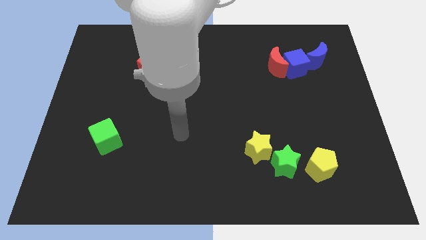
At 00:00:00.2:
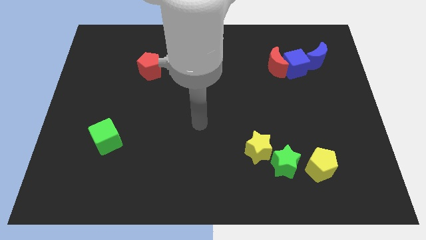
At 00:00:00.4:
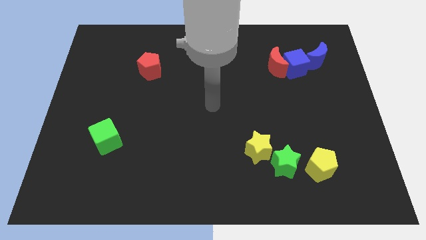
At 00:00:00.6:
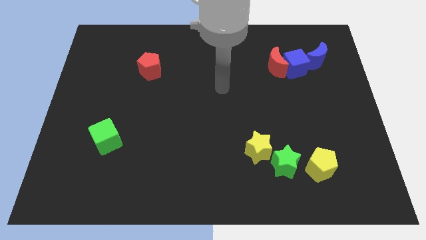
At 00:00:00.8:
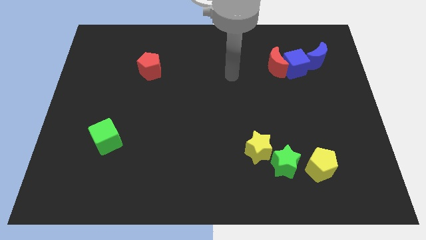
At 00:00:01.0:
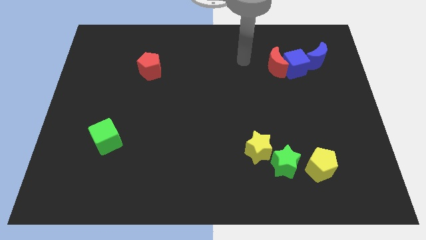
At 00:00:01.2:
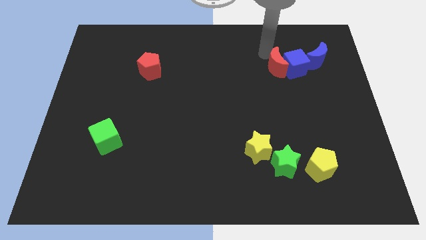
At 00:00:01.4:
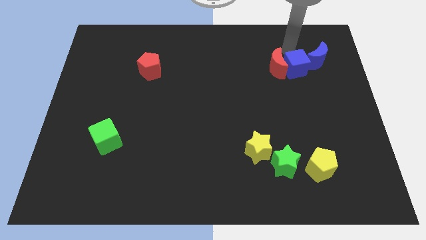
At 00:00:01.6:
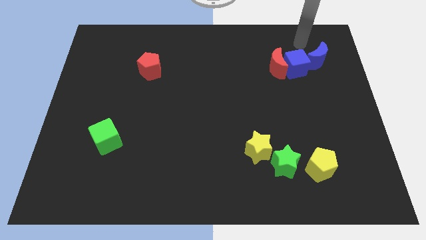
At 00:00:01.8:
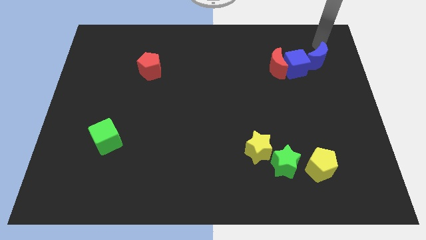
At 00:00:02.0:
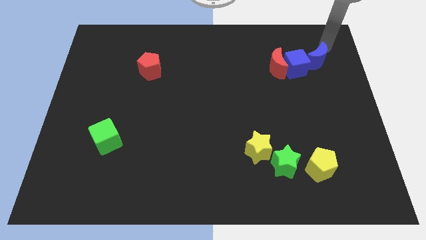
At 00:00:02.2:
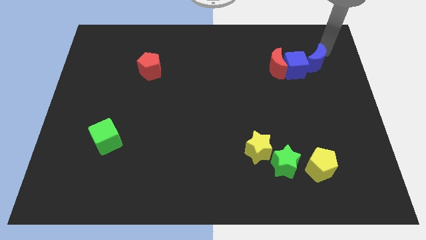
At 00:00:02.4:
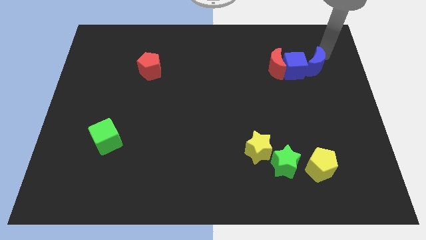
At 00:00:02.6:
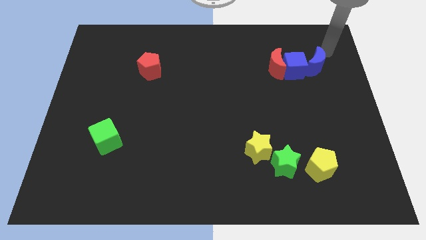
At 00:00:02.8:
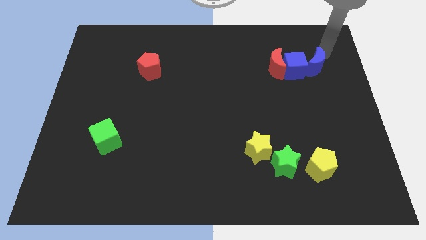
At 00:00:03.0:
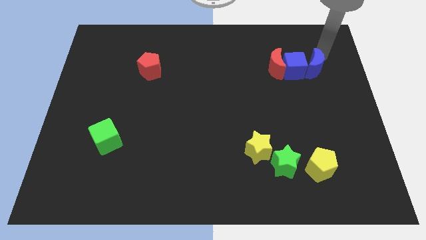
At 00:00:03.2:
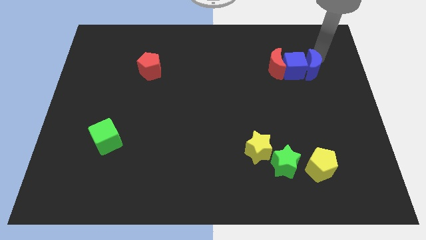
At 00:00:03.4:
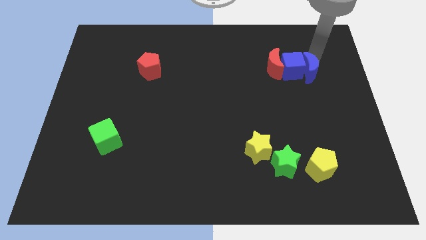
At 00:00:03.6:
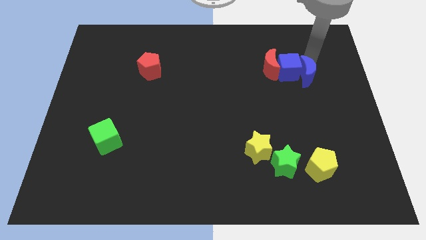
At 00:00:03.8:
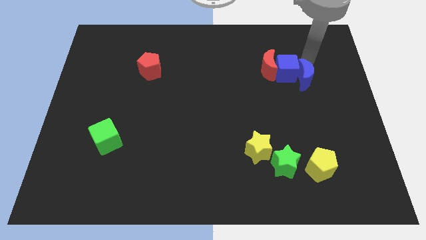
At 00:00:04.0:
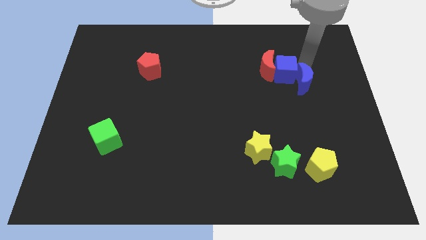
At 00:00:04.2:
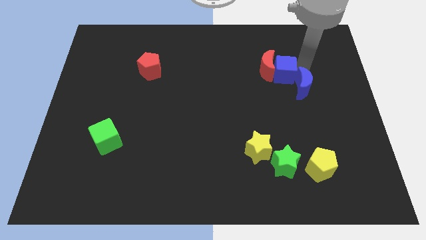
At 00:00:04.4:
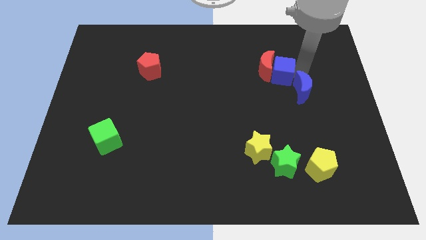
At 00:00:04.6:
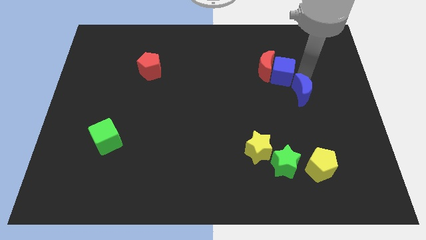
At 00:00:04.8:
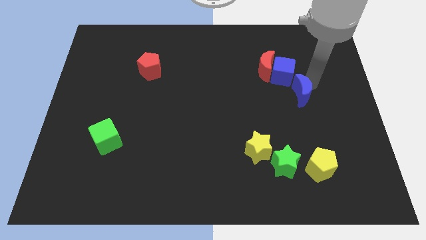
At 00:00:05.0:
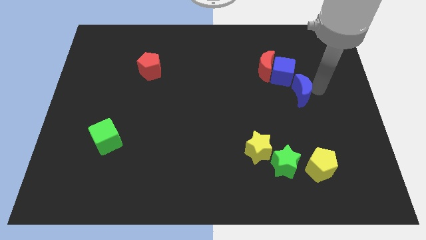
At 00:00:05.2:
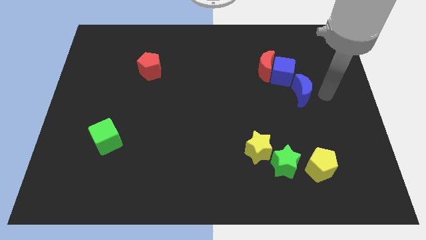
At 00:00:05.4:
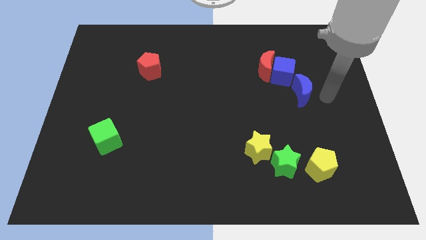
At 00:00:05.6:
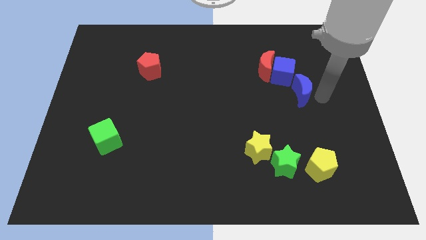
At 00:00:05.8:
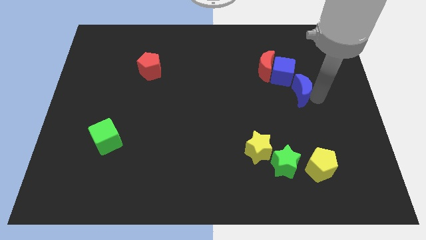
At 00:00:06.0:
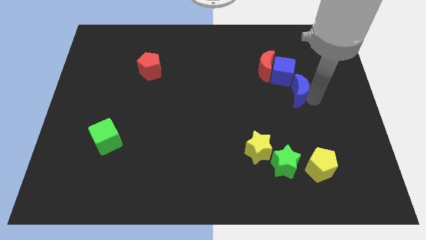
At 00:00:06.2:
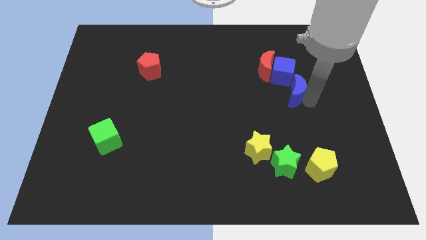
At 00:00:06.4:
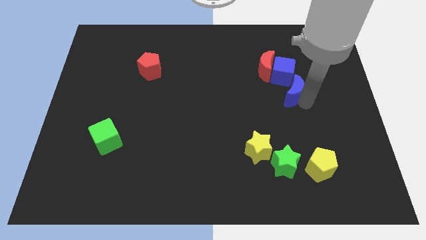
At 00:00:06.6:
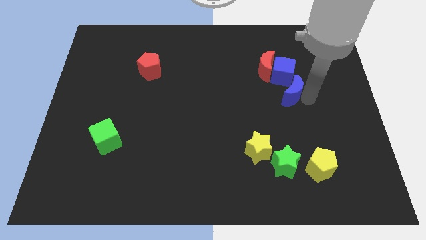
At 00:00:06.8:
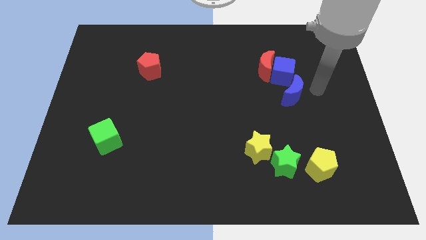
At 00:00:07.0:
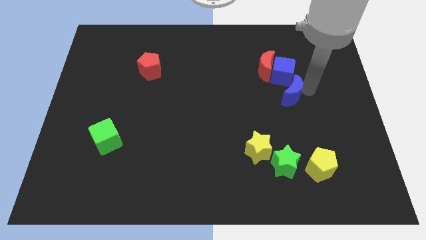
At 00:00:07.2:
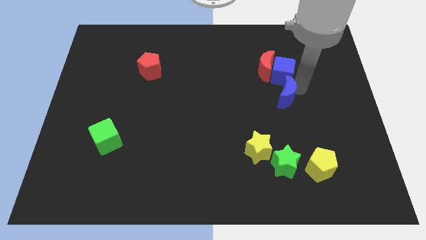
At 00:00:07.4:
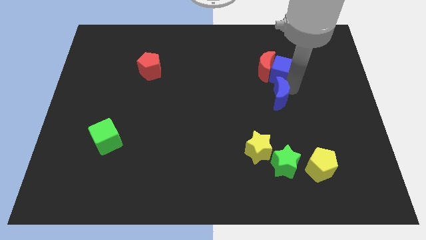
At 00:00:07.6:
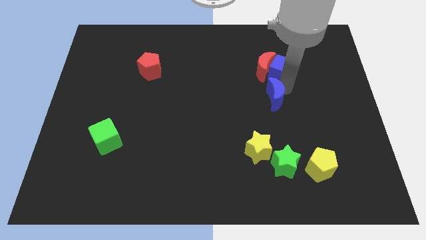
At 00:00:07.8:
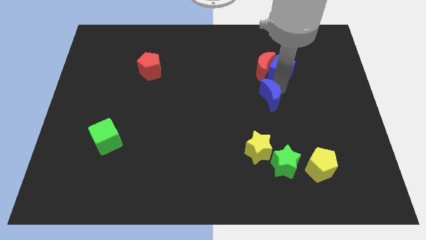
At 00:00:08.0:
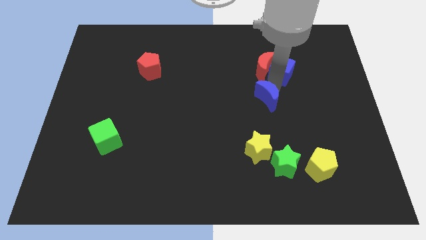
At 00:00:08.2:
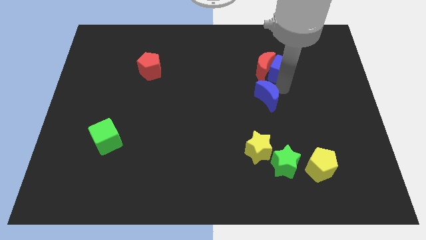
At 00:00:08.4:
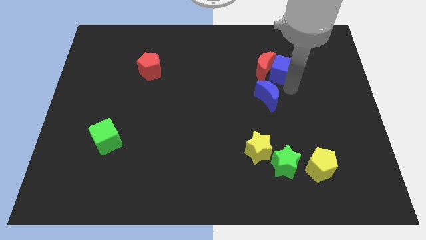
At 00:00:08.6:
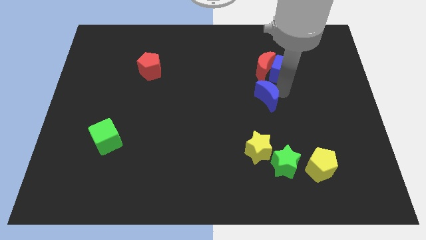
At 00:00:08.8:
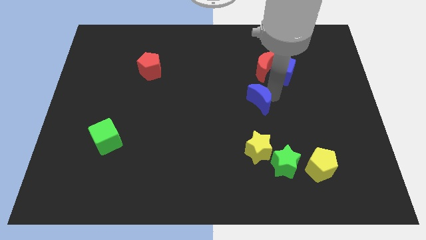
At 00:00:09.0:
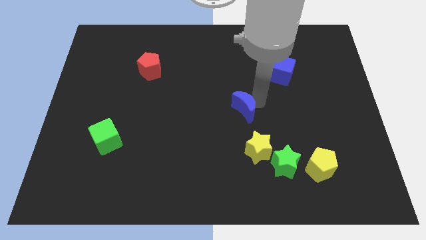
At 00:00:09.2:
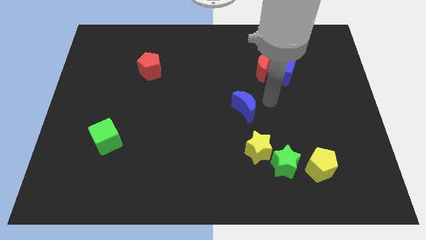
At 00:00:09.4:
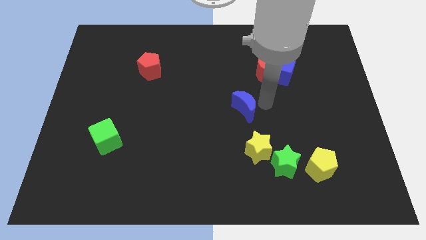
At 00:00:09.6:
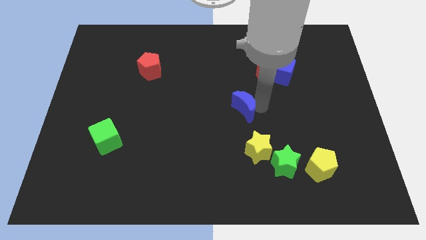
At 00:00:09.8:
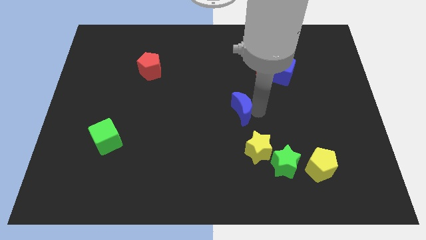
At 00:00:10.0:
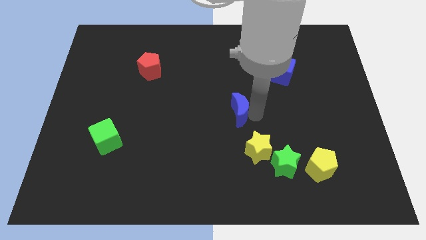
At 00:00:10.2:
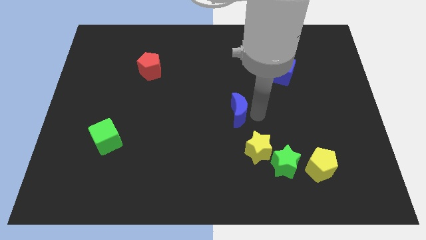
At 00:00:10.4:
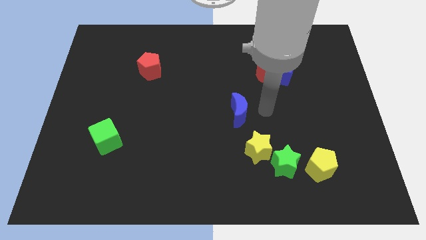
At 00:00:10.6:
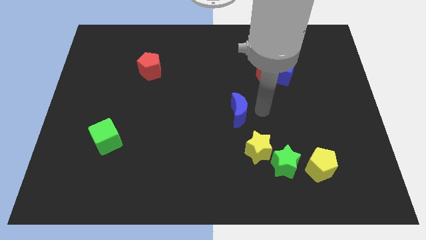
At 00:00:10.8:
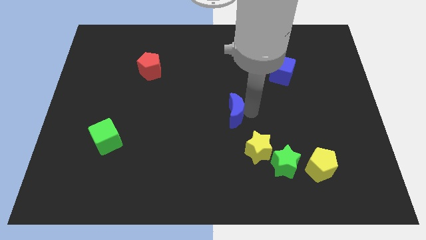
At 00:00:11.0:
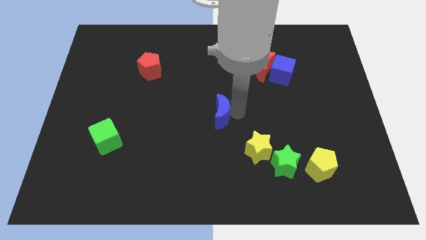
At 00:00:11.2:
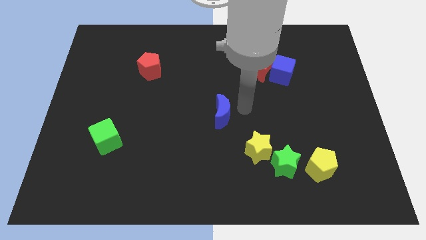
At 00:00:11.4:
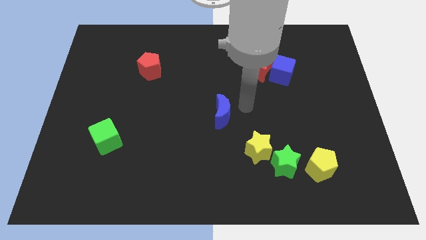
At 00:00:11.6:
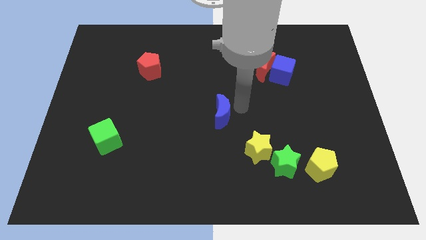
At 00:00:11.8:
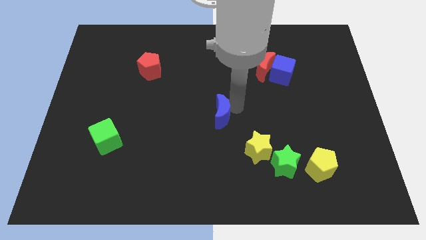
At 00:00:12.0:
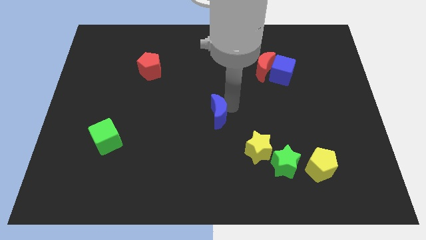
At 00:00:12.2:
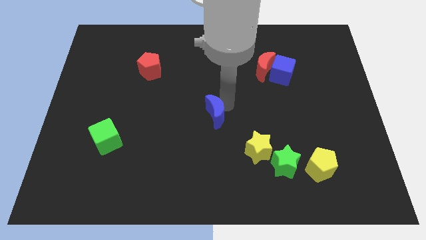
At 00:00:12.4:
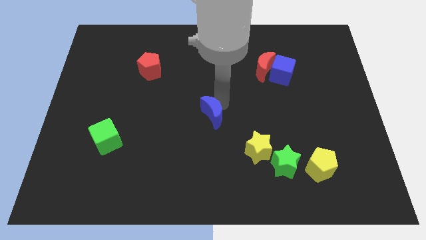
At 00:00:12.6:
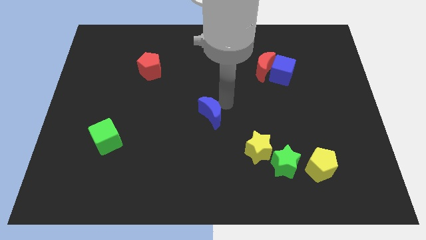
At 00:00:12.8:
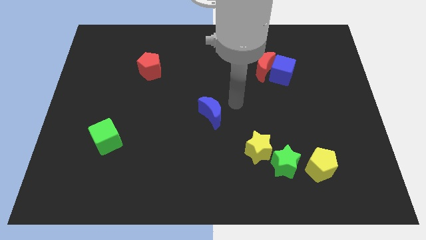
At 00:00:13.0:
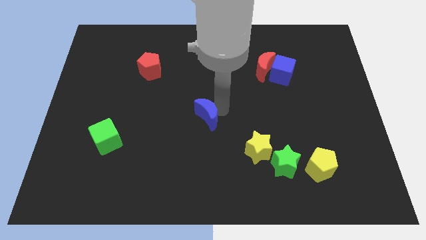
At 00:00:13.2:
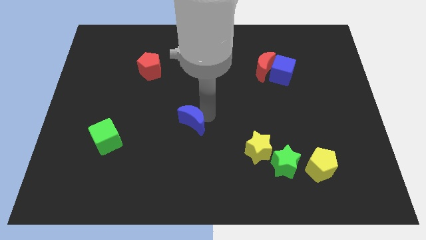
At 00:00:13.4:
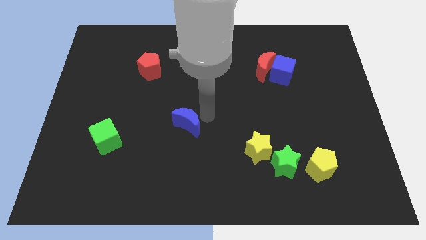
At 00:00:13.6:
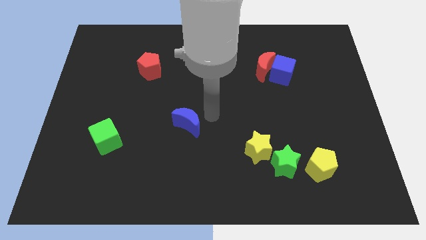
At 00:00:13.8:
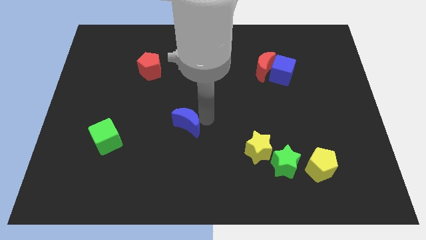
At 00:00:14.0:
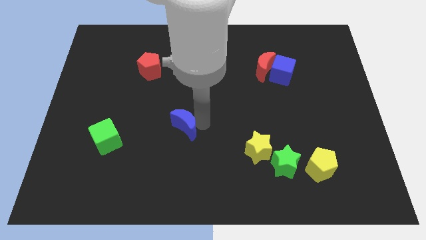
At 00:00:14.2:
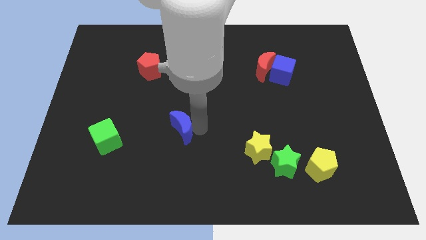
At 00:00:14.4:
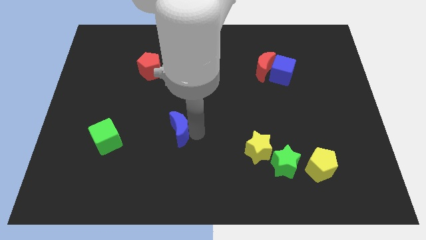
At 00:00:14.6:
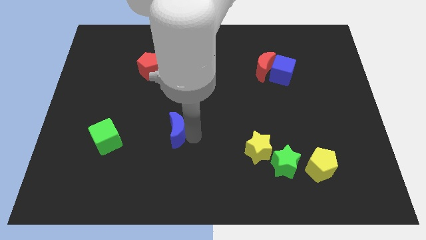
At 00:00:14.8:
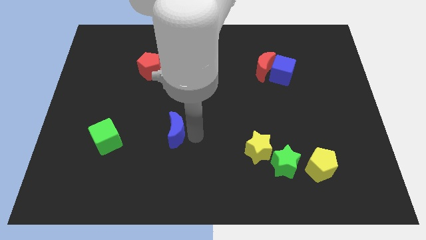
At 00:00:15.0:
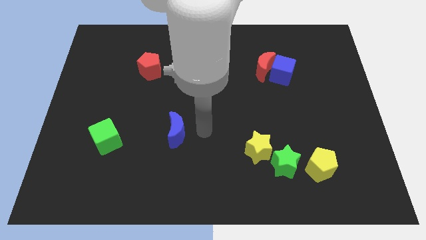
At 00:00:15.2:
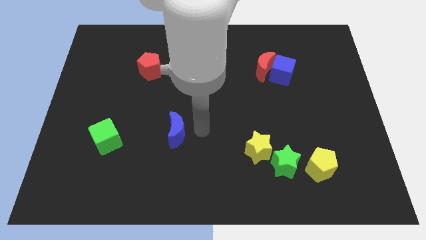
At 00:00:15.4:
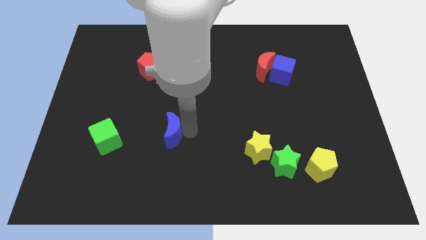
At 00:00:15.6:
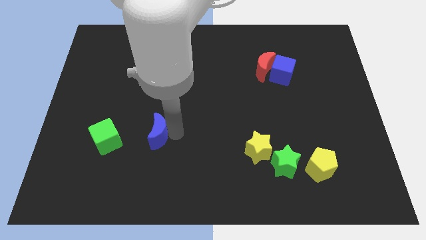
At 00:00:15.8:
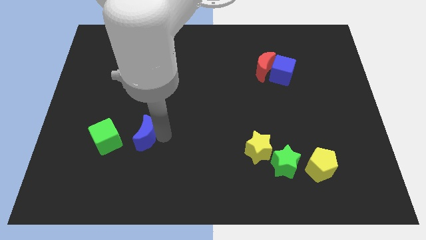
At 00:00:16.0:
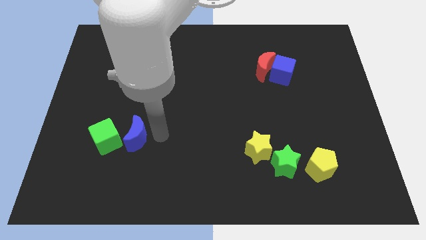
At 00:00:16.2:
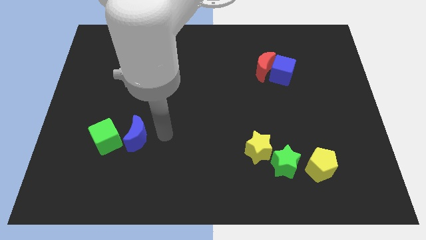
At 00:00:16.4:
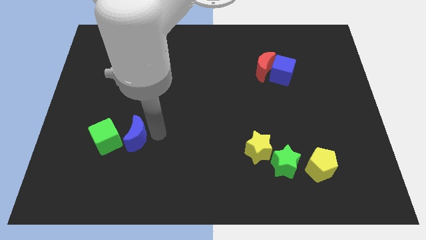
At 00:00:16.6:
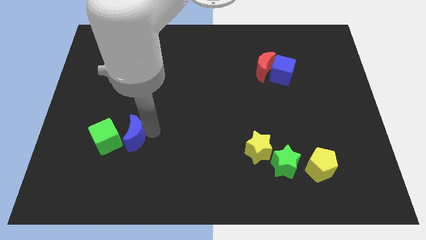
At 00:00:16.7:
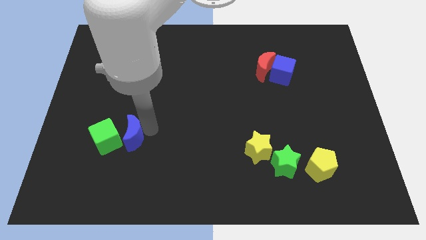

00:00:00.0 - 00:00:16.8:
put the blue moon next to the green cube
